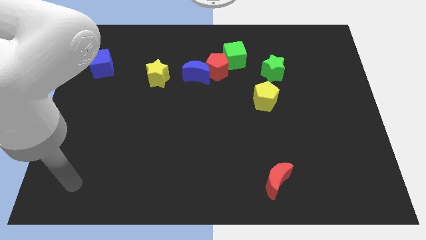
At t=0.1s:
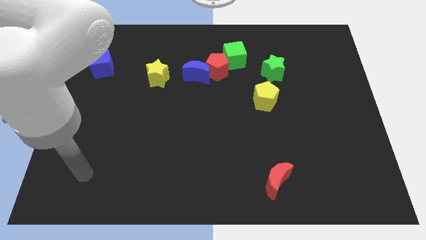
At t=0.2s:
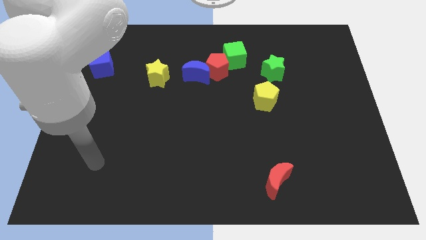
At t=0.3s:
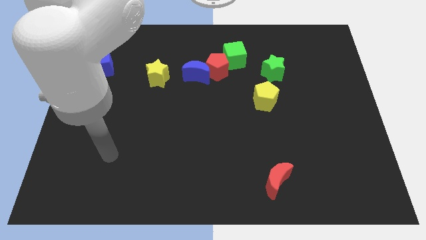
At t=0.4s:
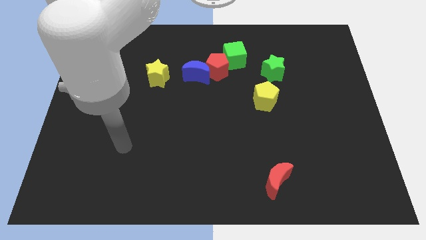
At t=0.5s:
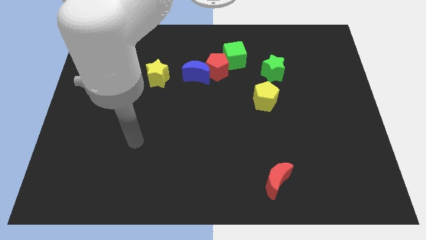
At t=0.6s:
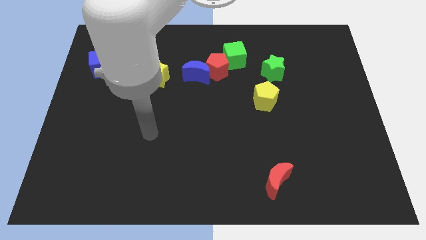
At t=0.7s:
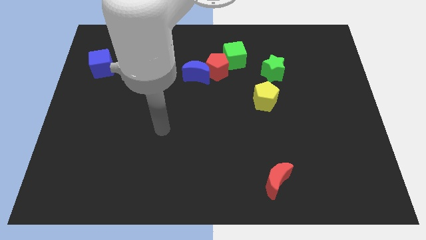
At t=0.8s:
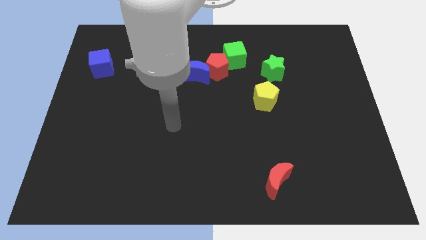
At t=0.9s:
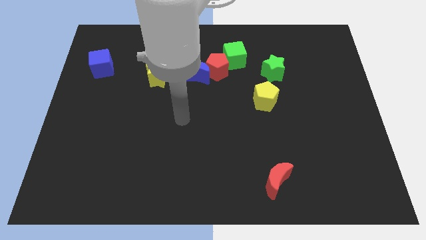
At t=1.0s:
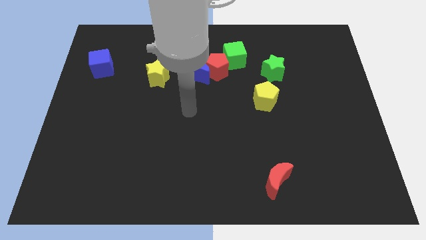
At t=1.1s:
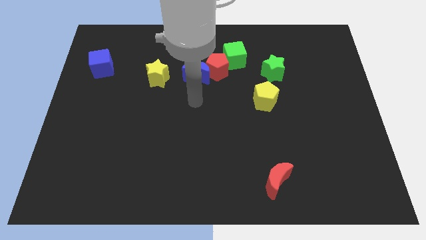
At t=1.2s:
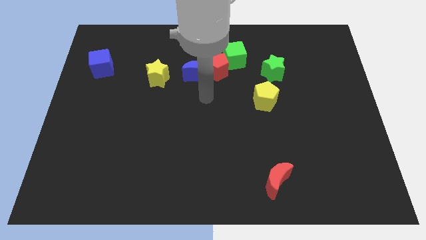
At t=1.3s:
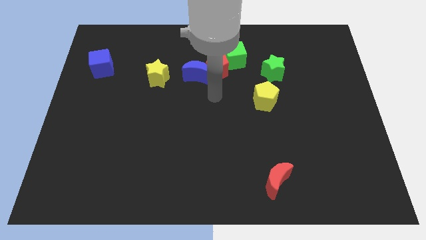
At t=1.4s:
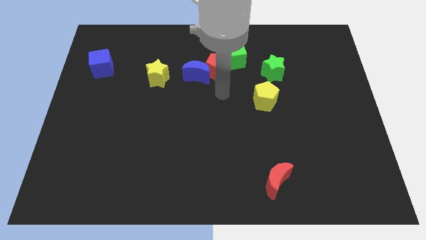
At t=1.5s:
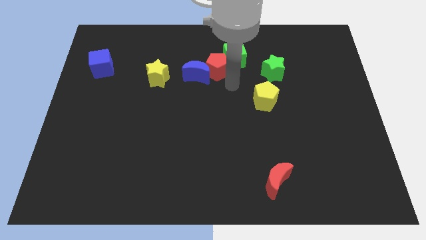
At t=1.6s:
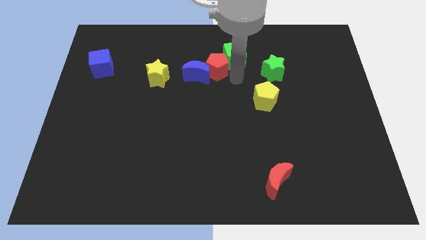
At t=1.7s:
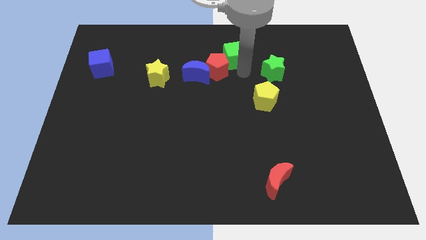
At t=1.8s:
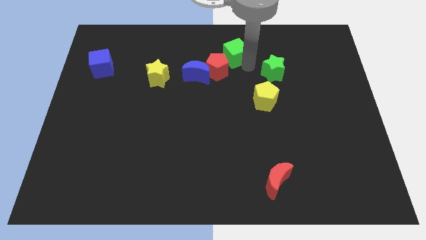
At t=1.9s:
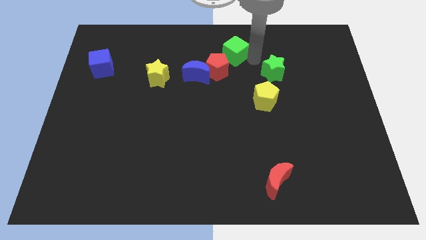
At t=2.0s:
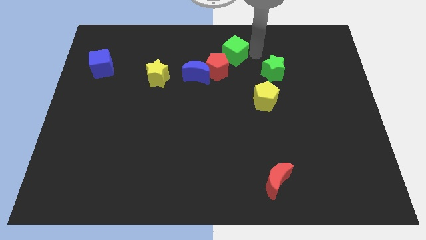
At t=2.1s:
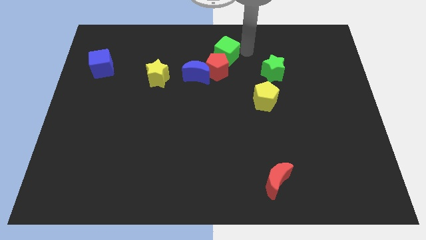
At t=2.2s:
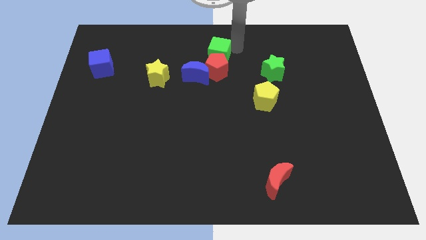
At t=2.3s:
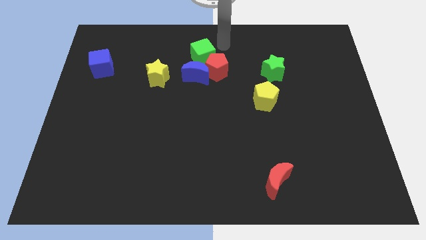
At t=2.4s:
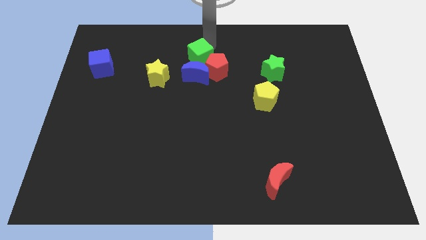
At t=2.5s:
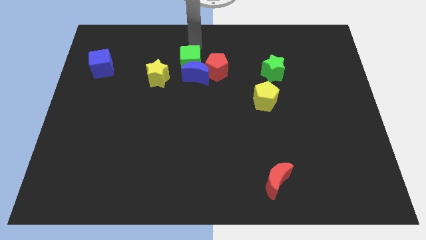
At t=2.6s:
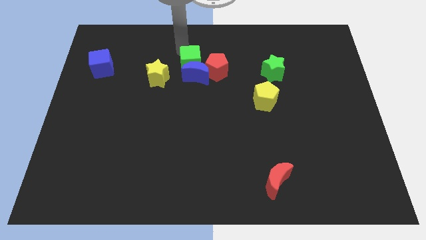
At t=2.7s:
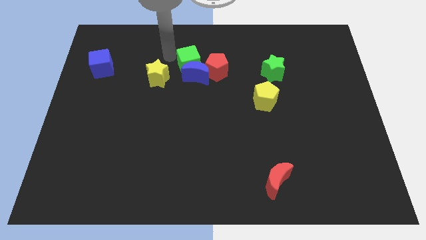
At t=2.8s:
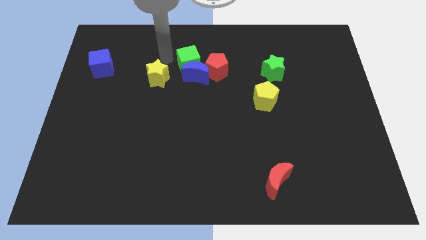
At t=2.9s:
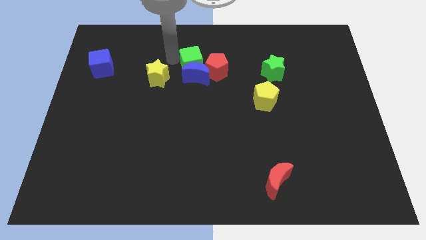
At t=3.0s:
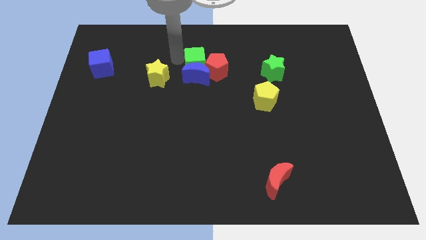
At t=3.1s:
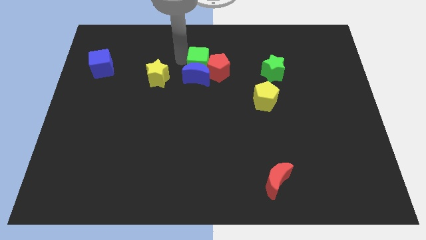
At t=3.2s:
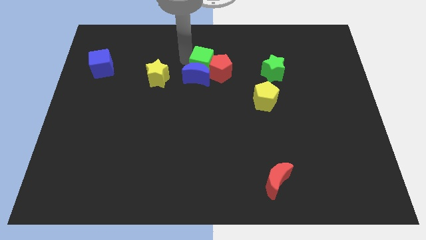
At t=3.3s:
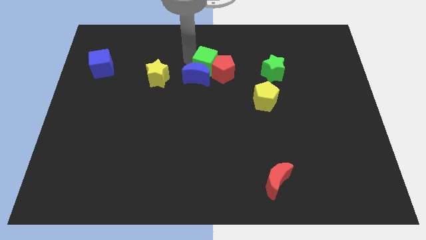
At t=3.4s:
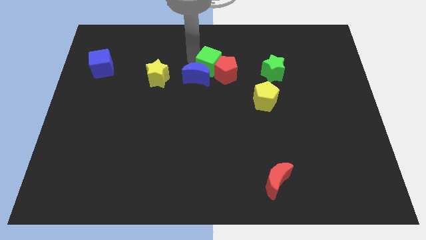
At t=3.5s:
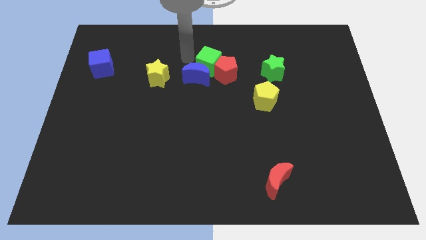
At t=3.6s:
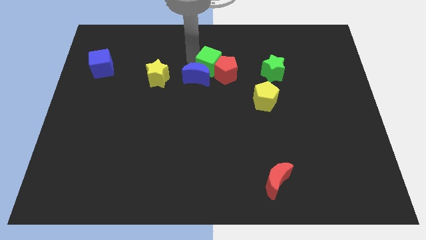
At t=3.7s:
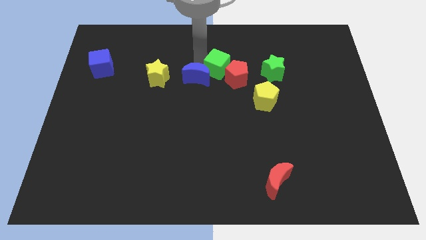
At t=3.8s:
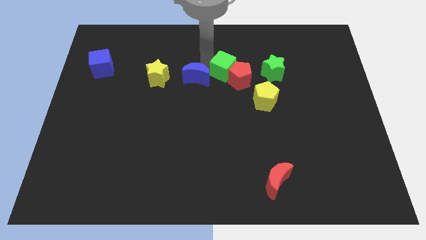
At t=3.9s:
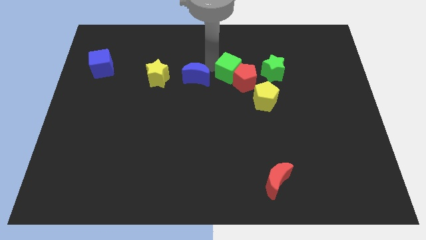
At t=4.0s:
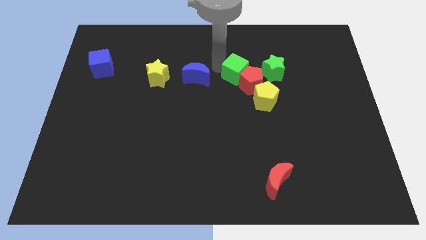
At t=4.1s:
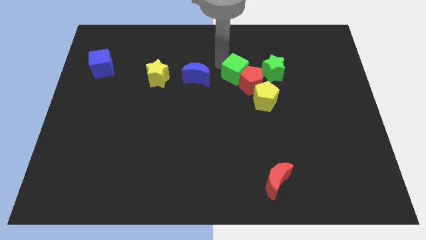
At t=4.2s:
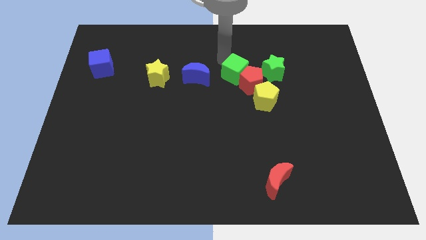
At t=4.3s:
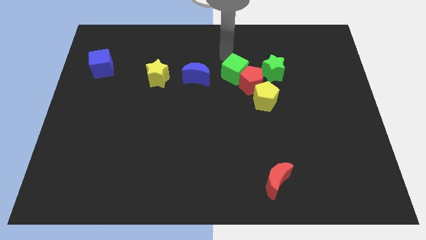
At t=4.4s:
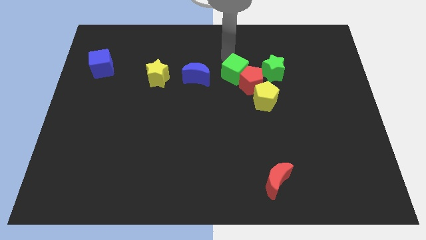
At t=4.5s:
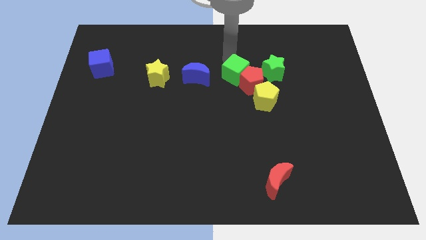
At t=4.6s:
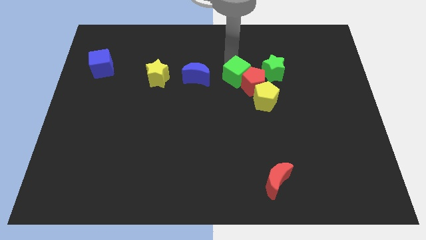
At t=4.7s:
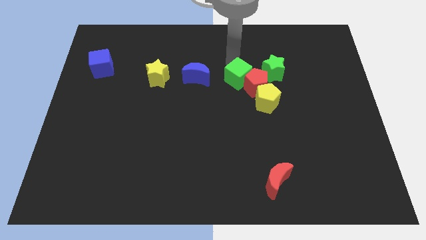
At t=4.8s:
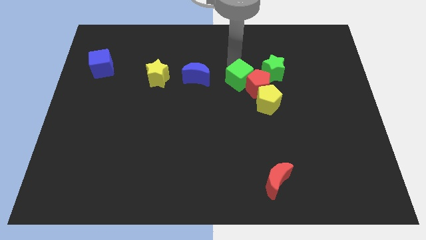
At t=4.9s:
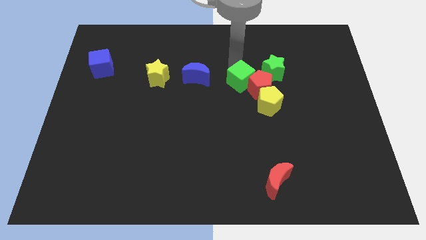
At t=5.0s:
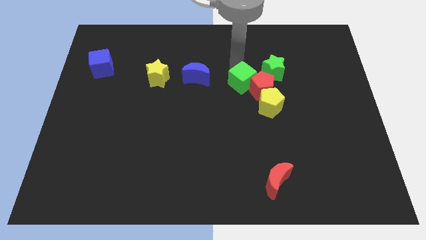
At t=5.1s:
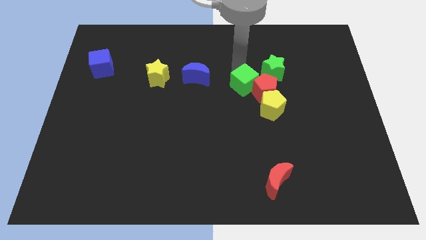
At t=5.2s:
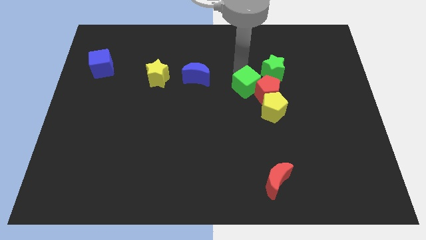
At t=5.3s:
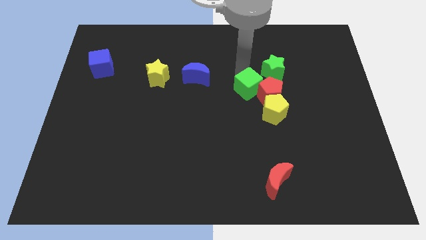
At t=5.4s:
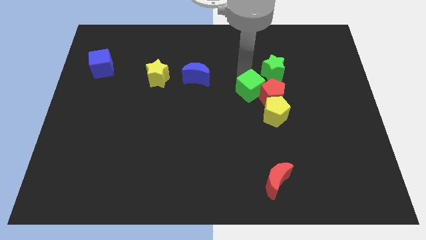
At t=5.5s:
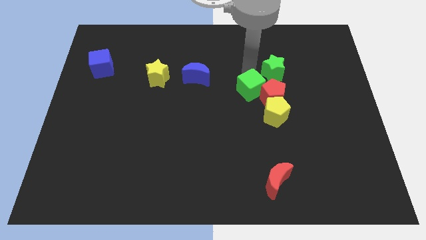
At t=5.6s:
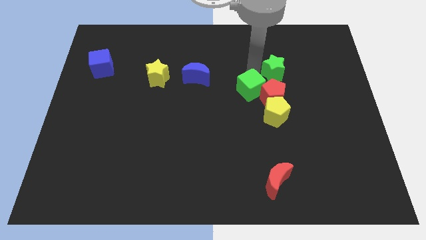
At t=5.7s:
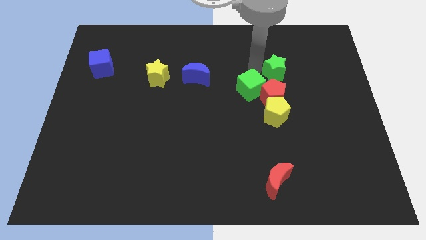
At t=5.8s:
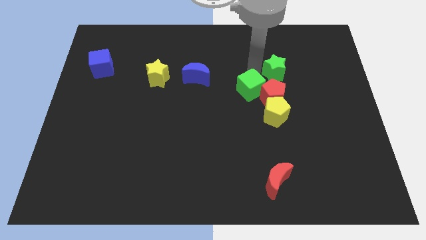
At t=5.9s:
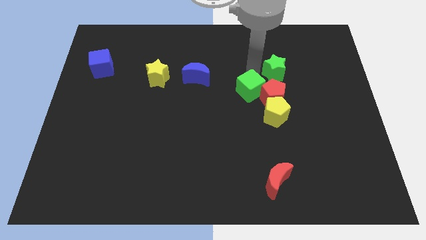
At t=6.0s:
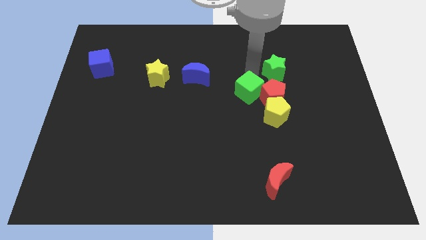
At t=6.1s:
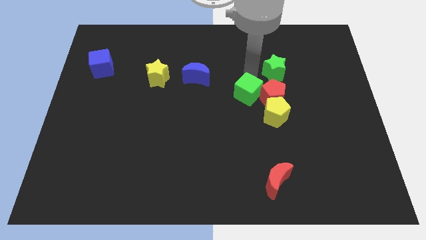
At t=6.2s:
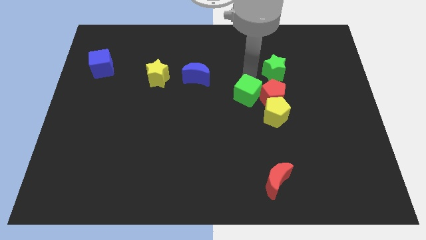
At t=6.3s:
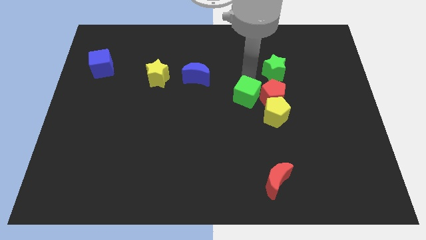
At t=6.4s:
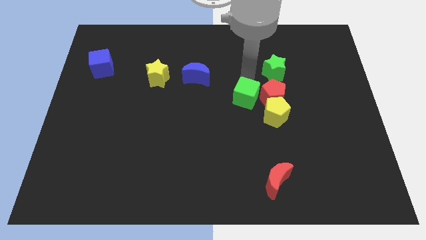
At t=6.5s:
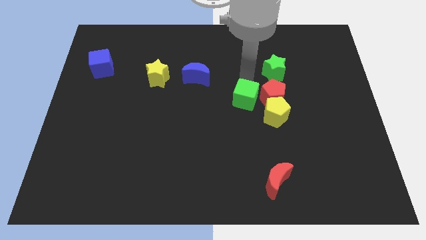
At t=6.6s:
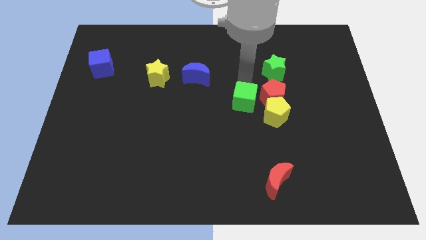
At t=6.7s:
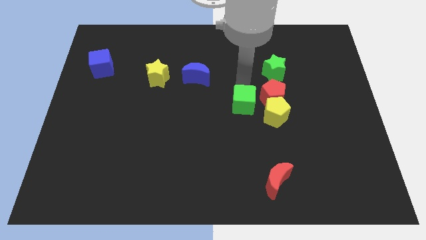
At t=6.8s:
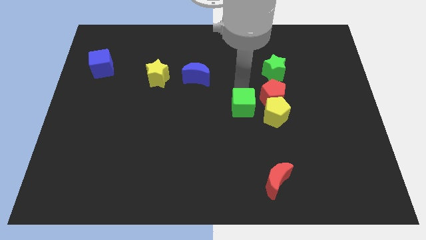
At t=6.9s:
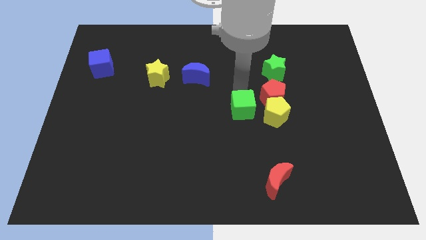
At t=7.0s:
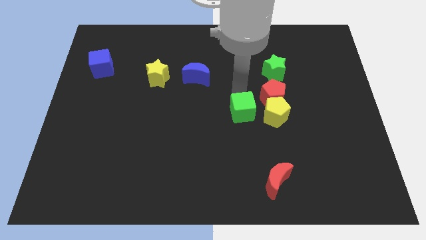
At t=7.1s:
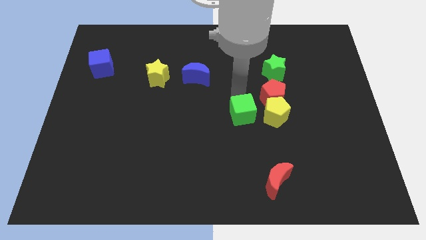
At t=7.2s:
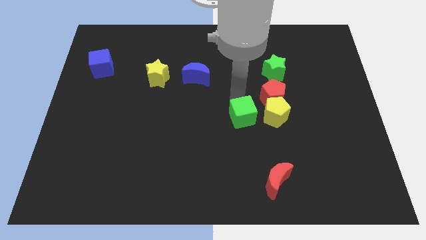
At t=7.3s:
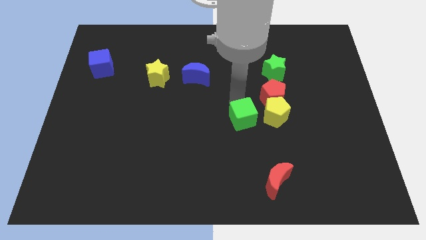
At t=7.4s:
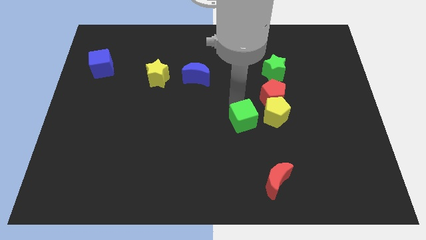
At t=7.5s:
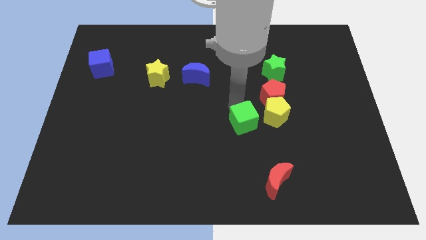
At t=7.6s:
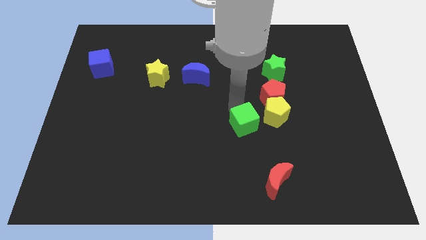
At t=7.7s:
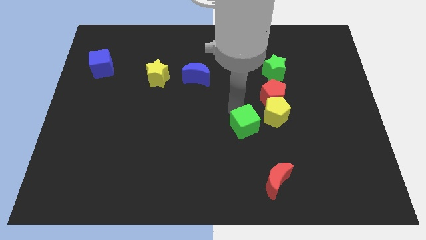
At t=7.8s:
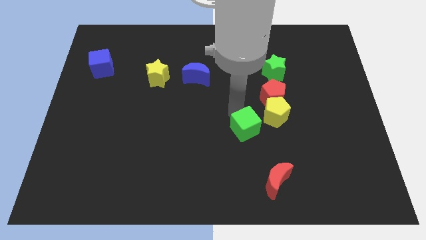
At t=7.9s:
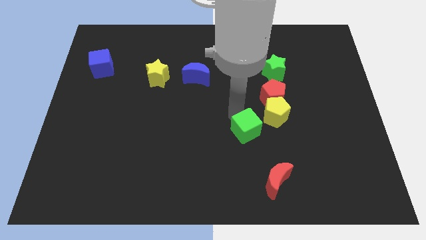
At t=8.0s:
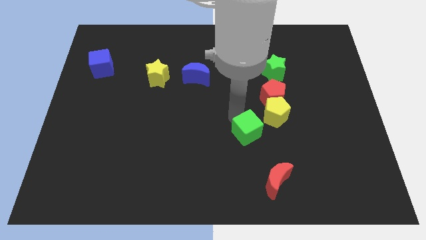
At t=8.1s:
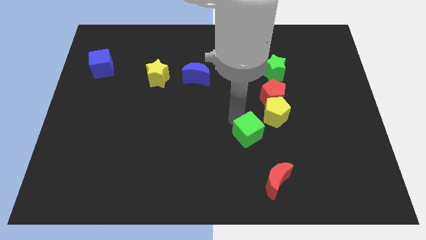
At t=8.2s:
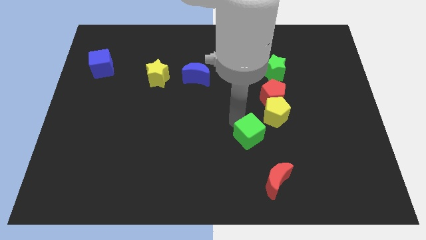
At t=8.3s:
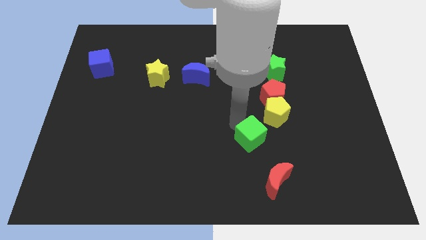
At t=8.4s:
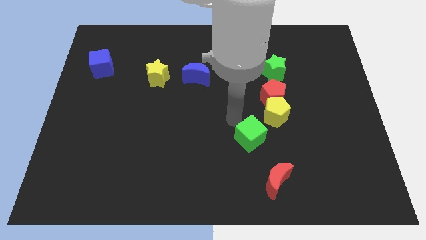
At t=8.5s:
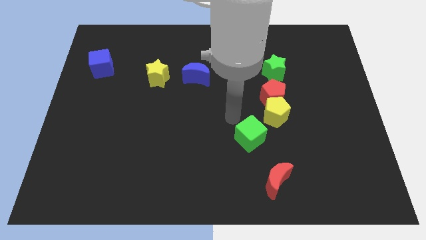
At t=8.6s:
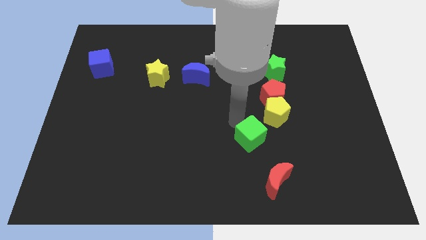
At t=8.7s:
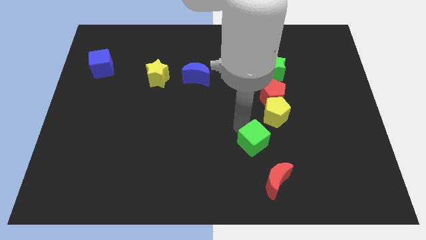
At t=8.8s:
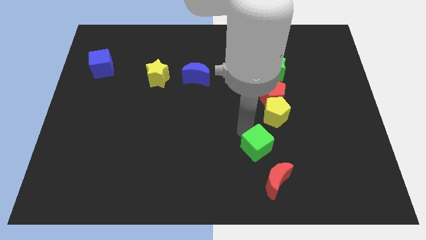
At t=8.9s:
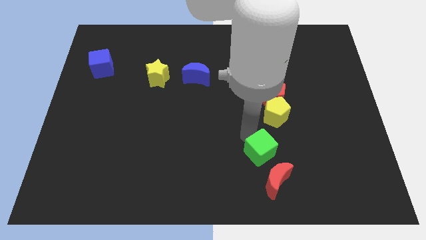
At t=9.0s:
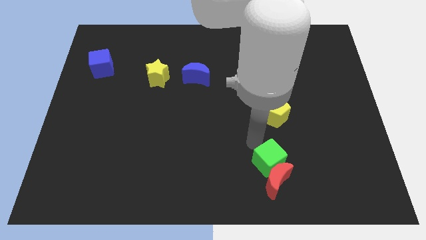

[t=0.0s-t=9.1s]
put the green cube next to the red moon
